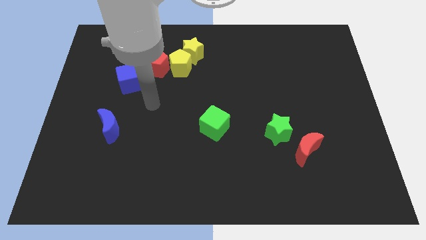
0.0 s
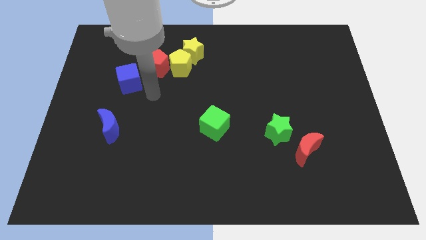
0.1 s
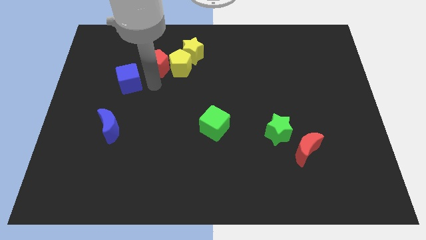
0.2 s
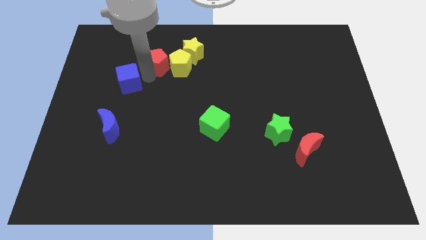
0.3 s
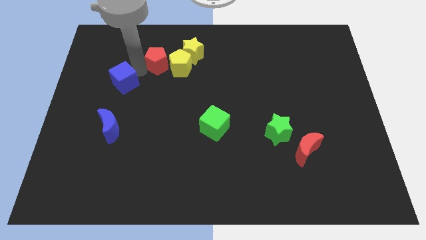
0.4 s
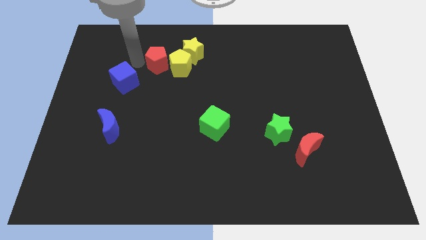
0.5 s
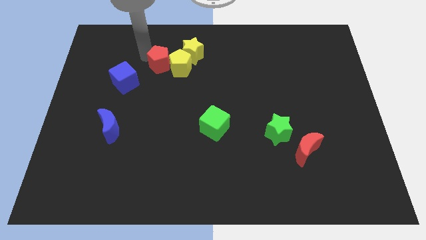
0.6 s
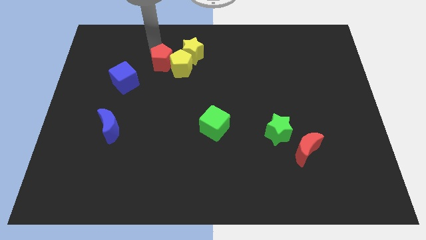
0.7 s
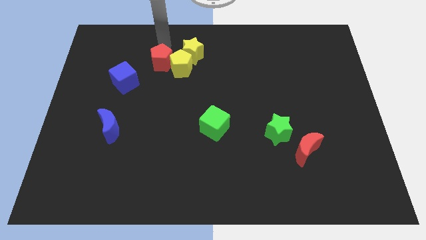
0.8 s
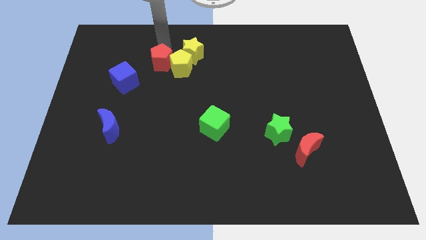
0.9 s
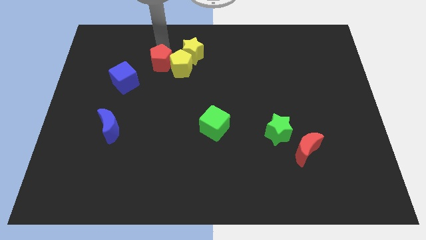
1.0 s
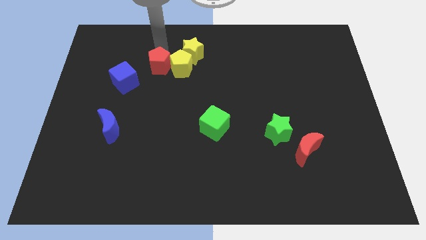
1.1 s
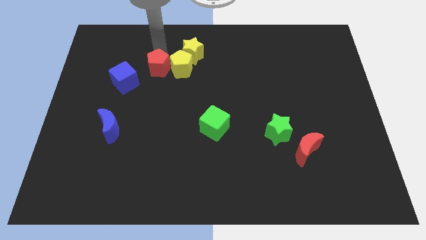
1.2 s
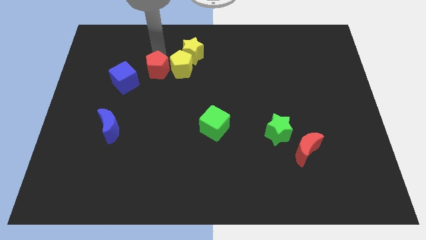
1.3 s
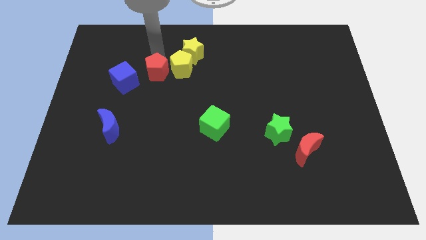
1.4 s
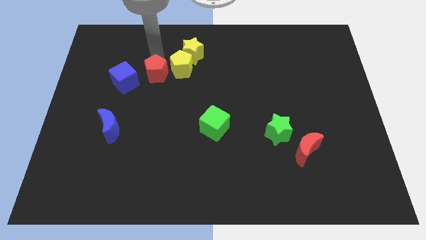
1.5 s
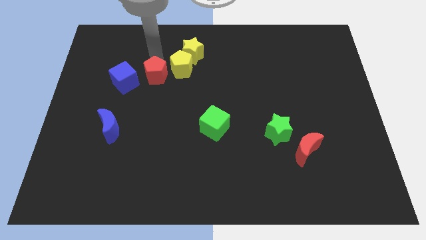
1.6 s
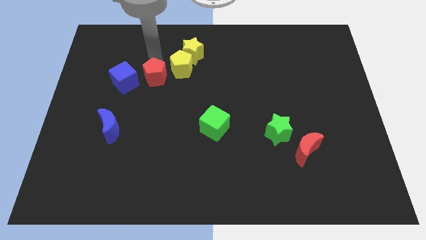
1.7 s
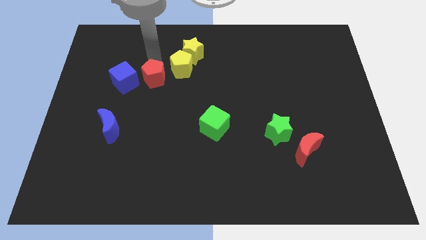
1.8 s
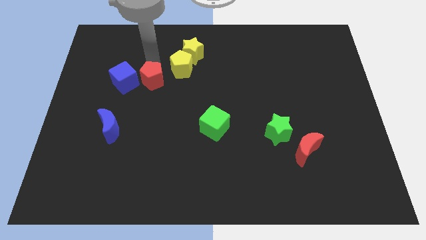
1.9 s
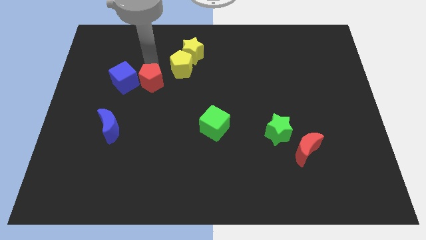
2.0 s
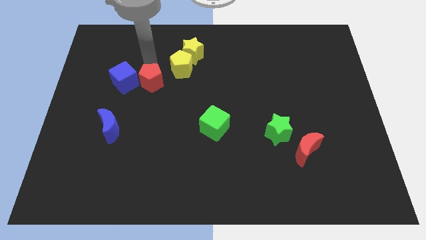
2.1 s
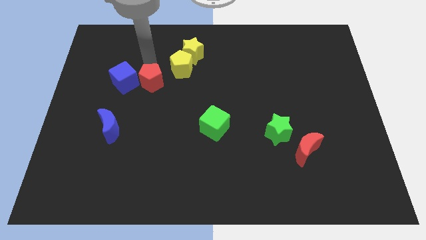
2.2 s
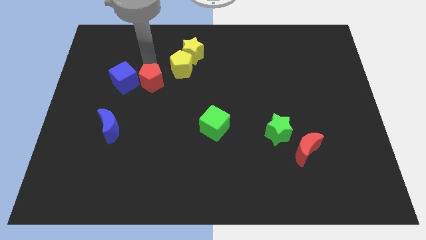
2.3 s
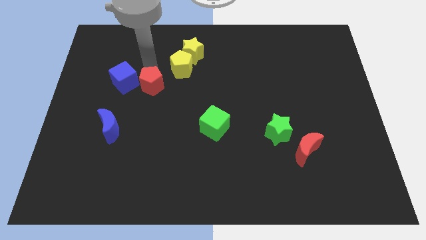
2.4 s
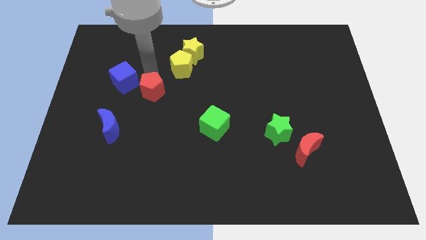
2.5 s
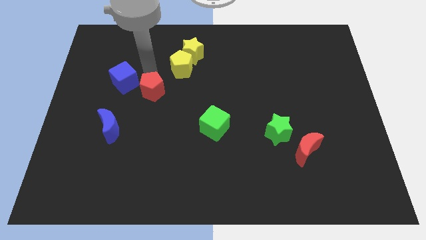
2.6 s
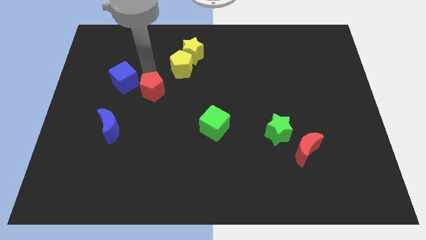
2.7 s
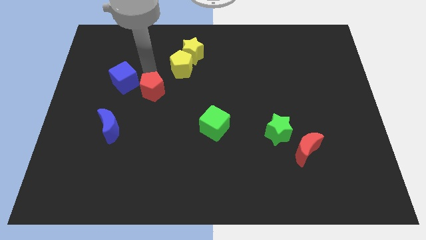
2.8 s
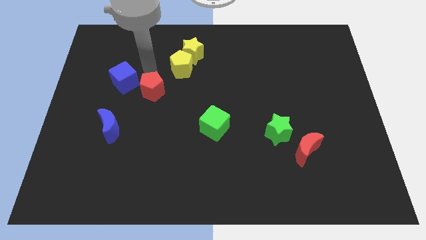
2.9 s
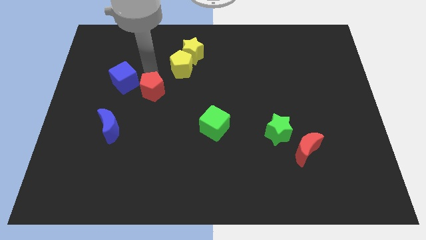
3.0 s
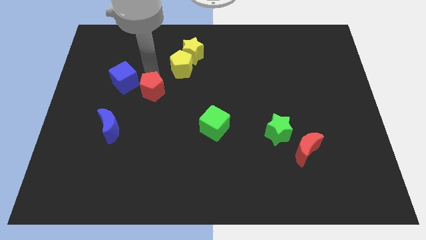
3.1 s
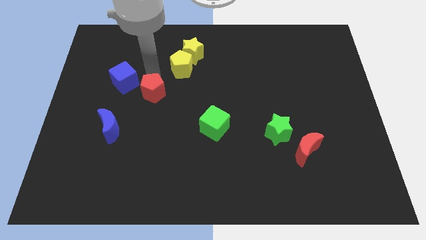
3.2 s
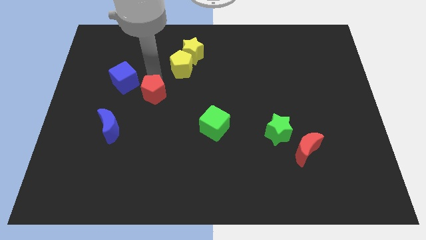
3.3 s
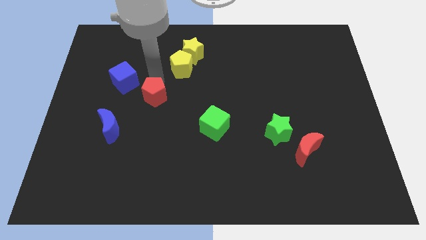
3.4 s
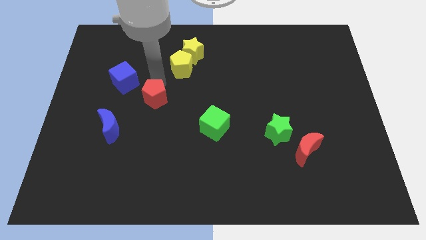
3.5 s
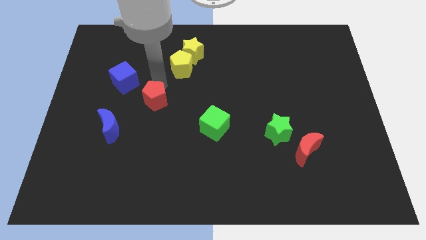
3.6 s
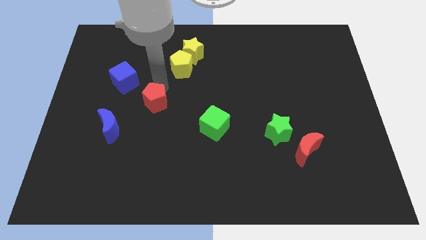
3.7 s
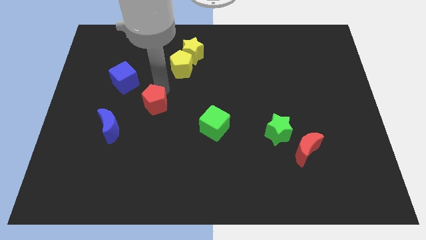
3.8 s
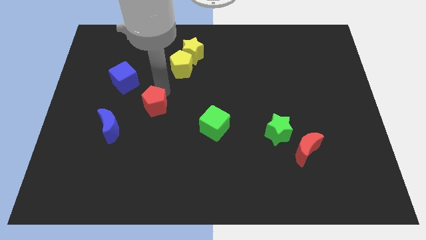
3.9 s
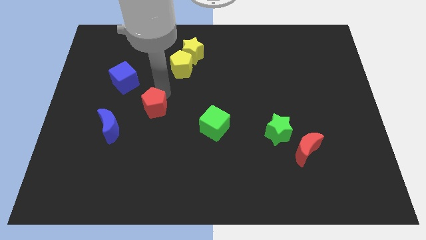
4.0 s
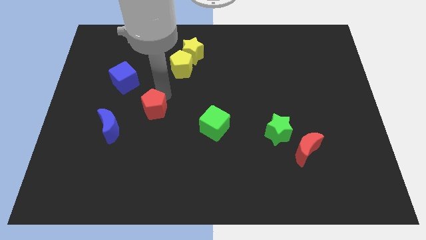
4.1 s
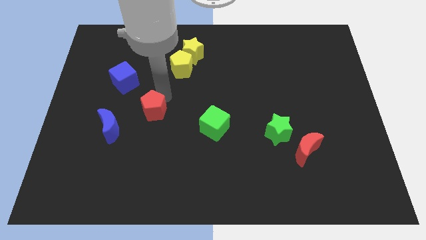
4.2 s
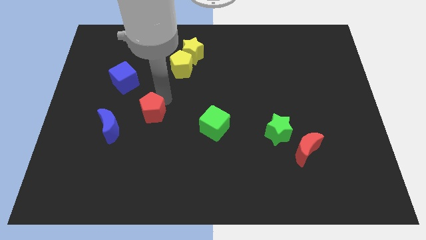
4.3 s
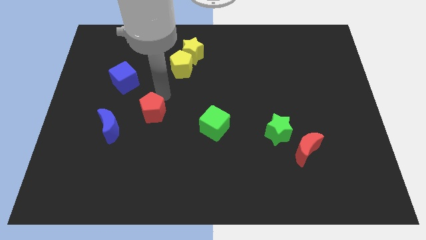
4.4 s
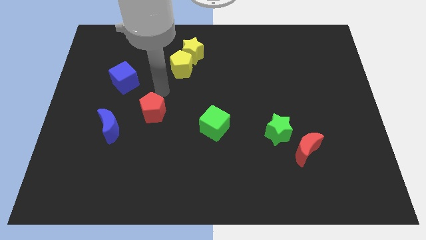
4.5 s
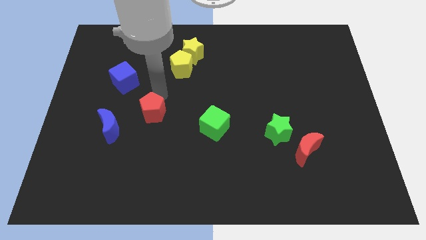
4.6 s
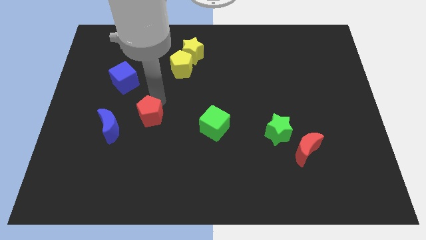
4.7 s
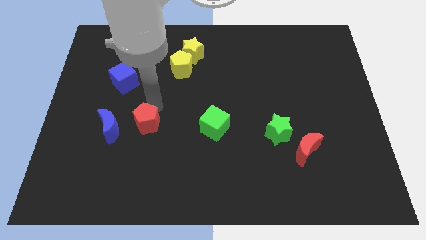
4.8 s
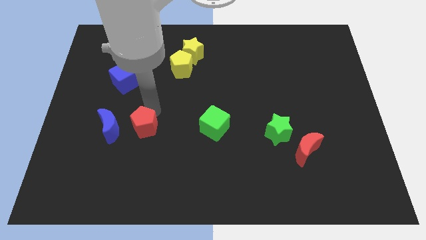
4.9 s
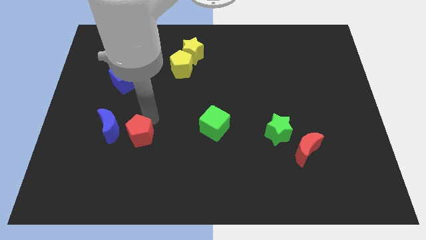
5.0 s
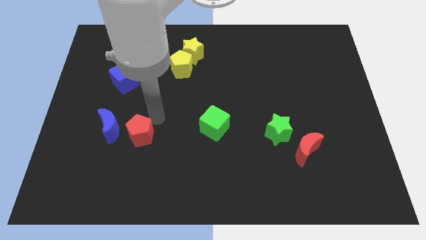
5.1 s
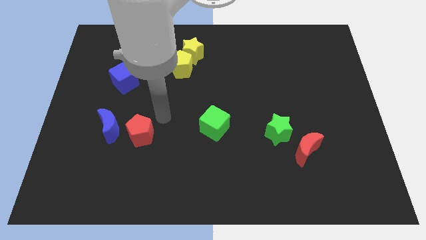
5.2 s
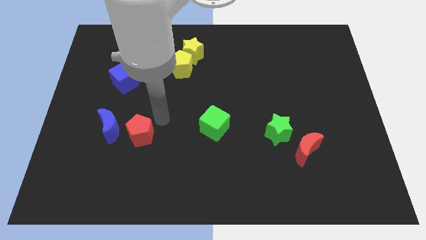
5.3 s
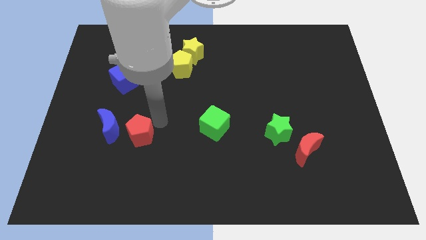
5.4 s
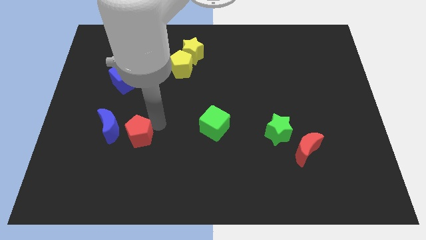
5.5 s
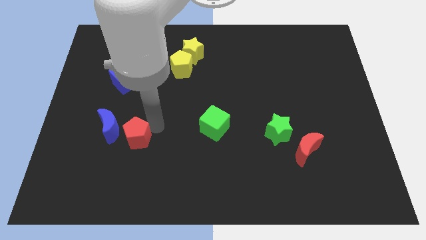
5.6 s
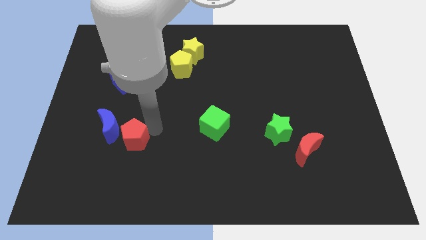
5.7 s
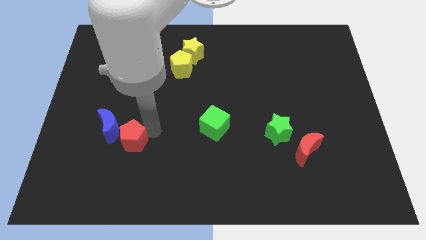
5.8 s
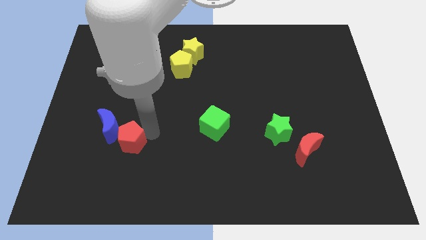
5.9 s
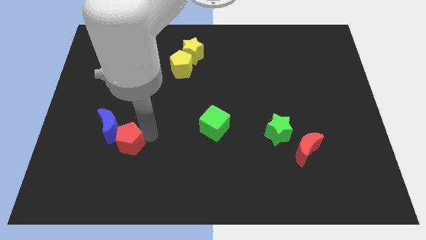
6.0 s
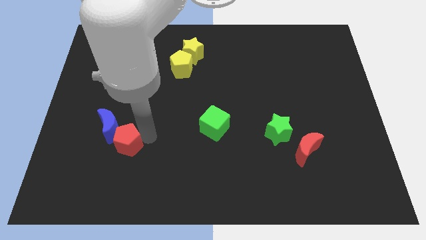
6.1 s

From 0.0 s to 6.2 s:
slide the red pentagon to the bottom of the blue moon

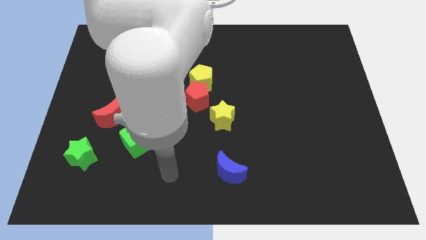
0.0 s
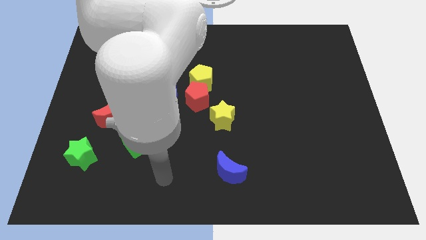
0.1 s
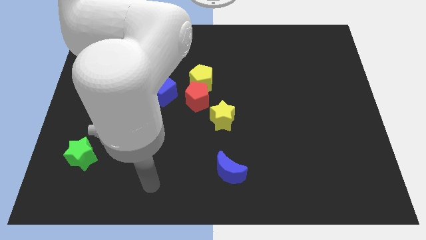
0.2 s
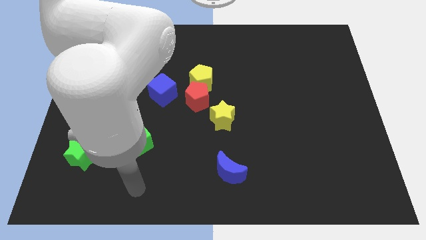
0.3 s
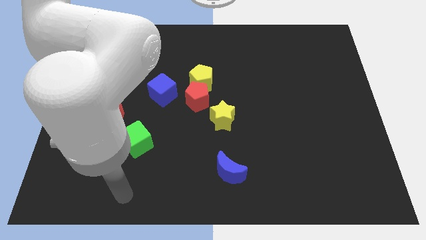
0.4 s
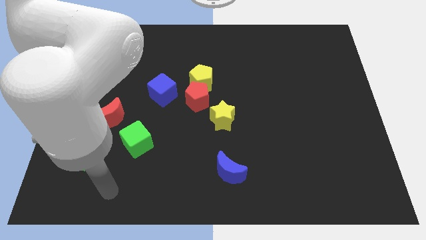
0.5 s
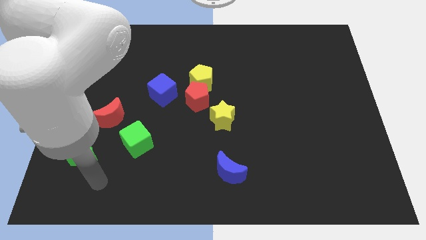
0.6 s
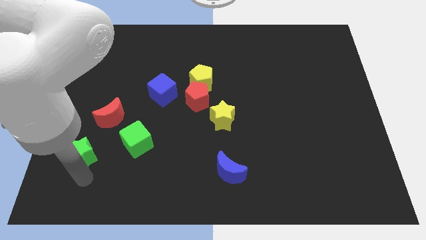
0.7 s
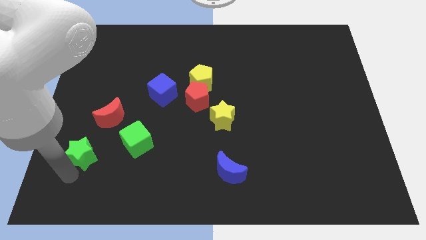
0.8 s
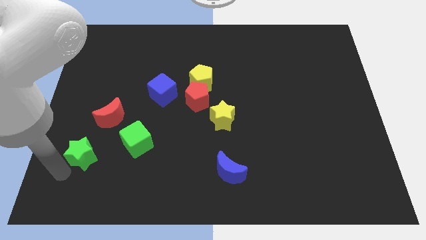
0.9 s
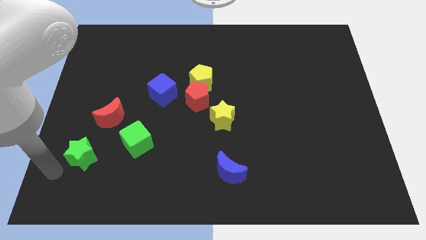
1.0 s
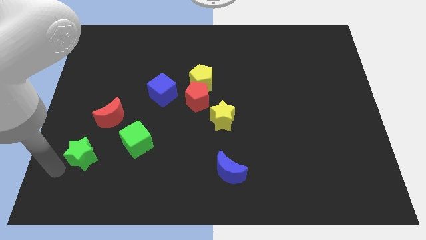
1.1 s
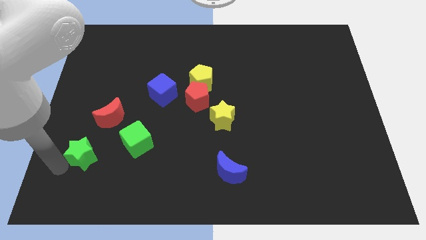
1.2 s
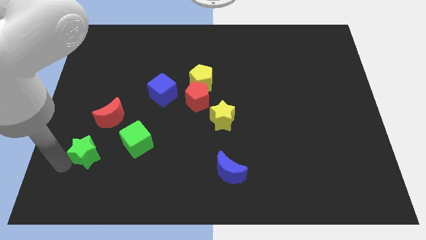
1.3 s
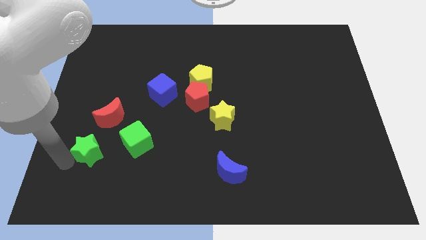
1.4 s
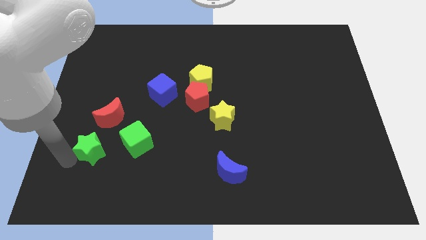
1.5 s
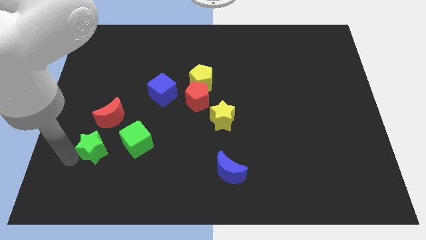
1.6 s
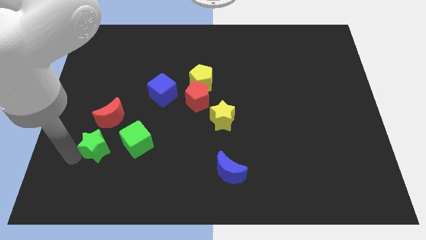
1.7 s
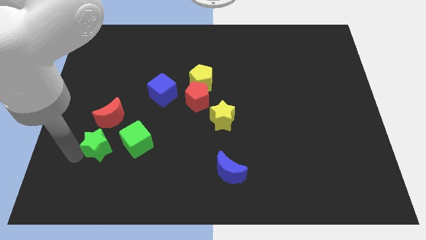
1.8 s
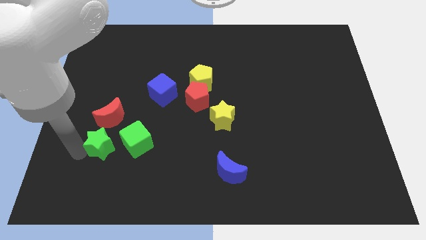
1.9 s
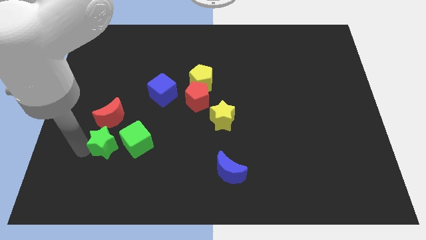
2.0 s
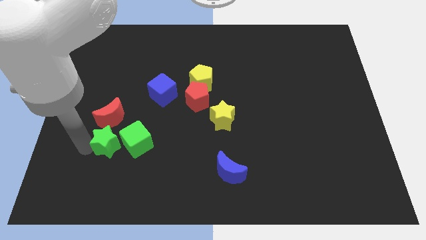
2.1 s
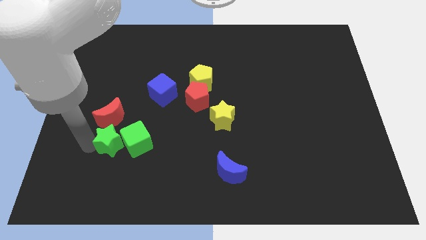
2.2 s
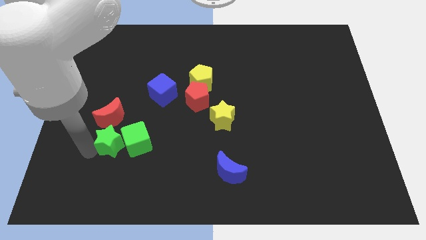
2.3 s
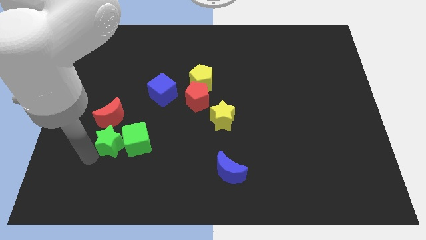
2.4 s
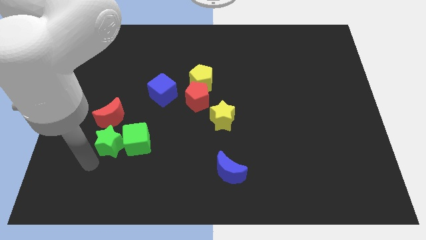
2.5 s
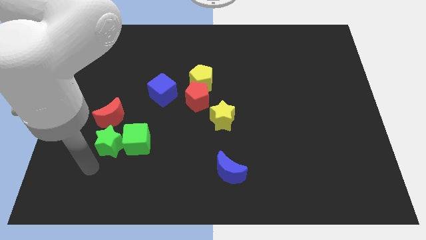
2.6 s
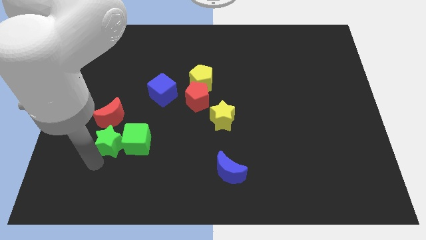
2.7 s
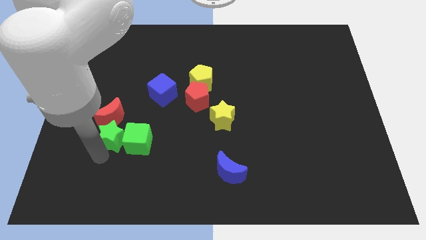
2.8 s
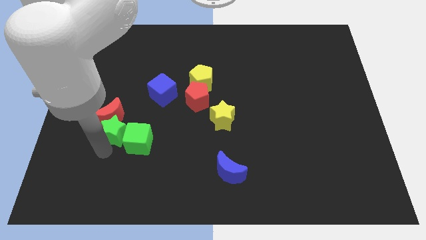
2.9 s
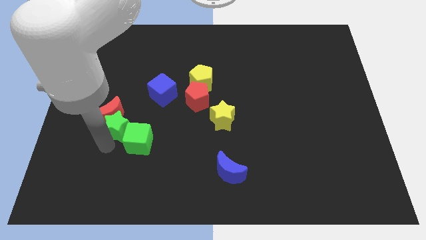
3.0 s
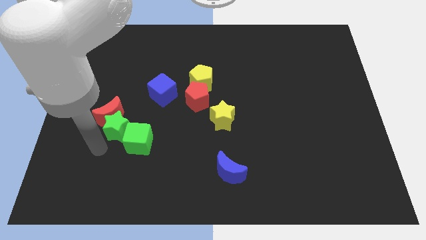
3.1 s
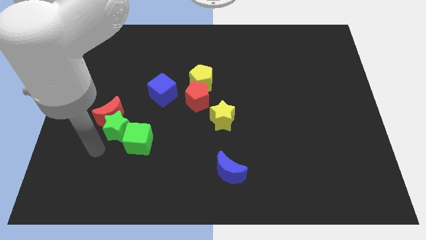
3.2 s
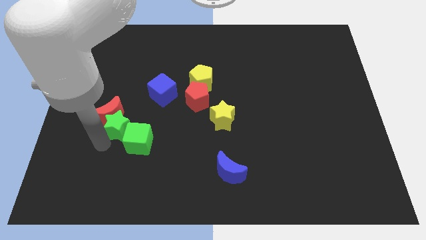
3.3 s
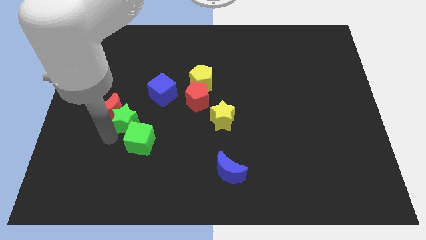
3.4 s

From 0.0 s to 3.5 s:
put the green star to the top side of the green cube
